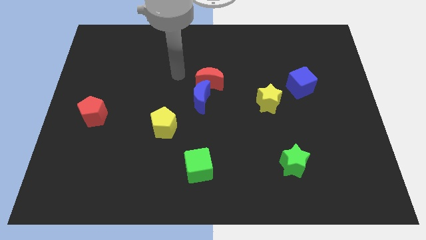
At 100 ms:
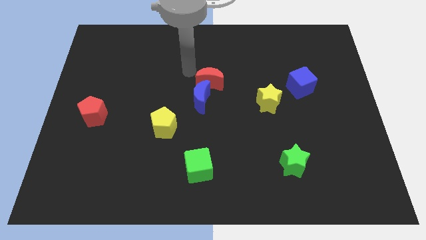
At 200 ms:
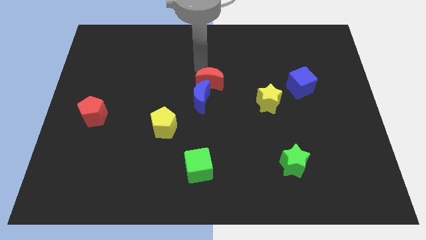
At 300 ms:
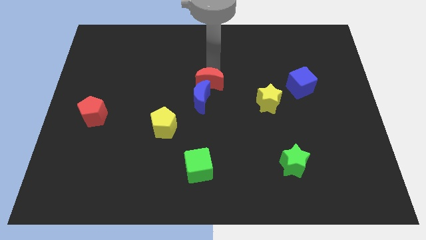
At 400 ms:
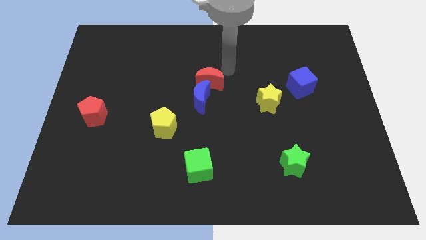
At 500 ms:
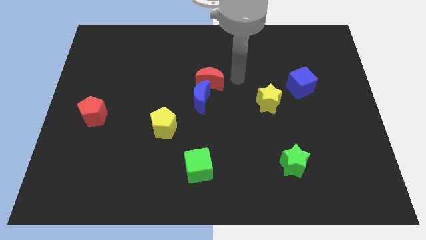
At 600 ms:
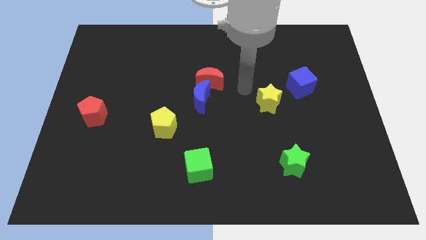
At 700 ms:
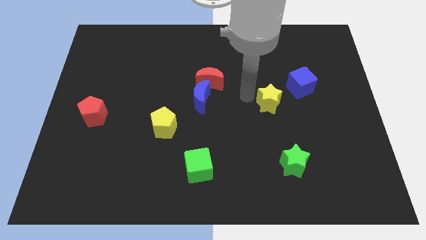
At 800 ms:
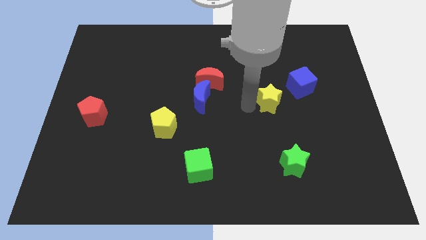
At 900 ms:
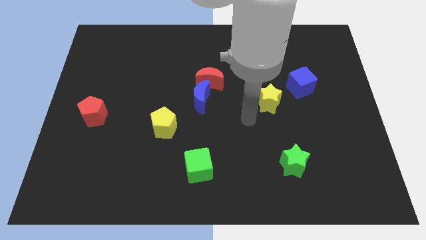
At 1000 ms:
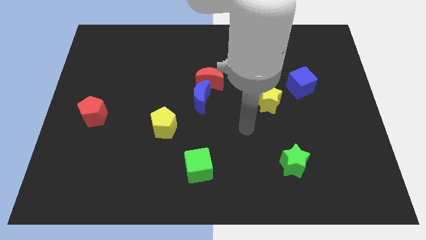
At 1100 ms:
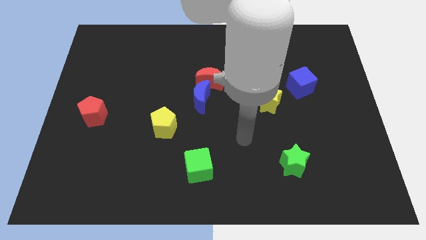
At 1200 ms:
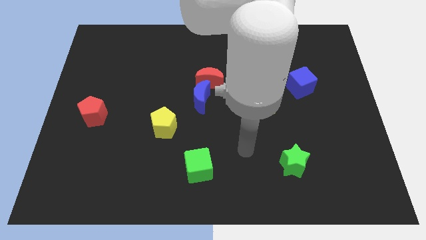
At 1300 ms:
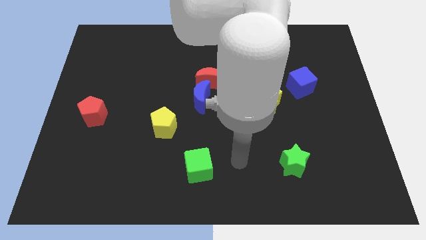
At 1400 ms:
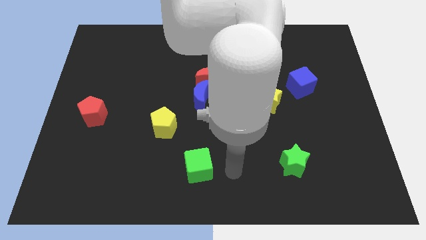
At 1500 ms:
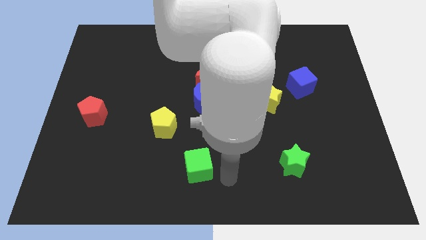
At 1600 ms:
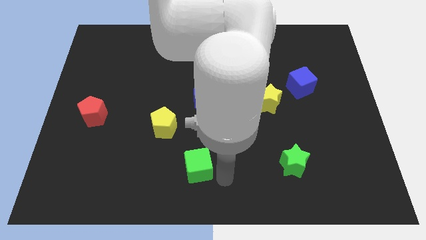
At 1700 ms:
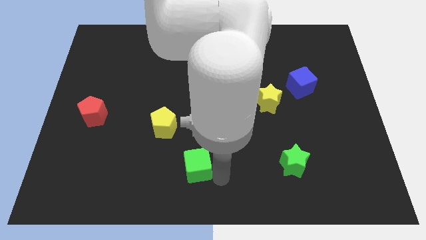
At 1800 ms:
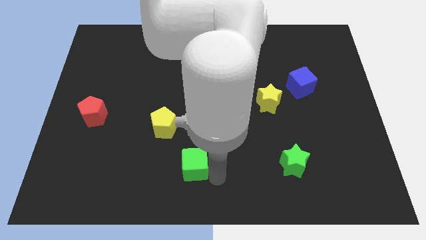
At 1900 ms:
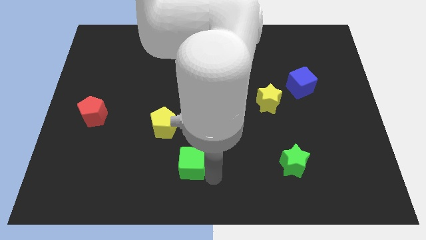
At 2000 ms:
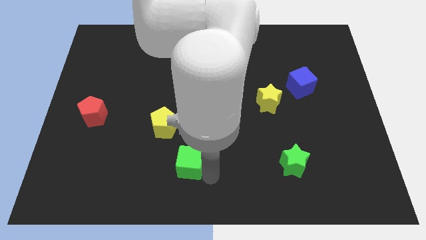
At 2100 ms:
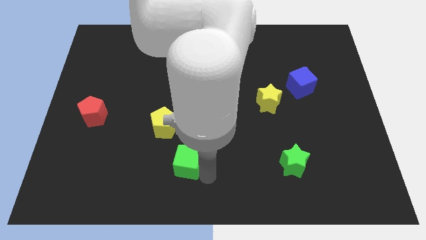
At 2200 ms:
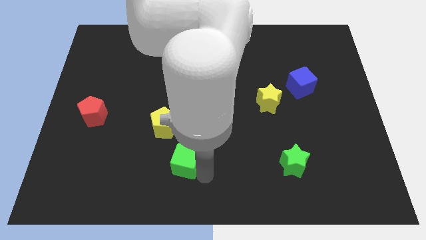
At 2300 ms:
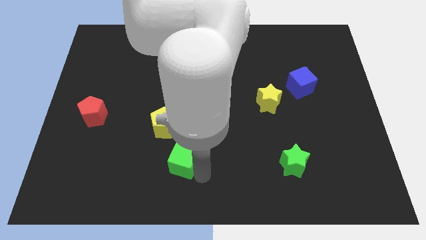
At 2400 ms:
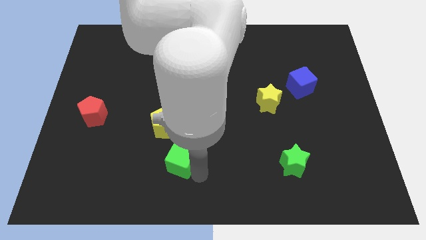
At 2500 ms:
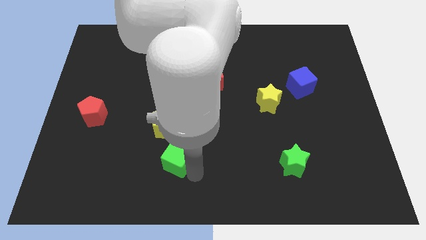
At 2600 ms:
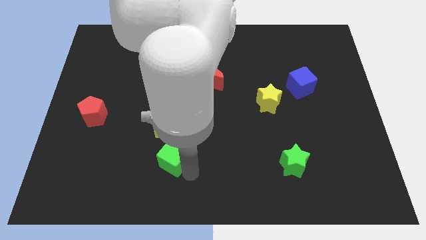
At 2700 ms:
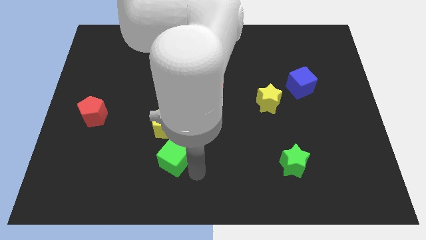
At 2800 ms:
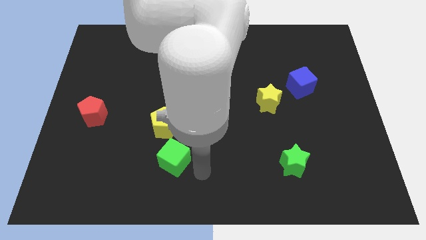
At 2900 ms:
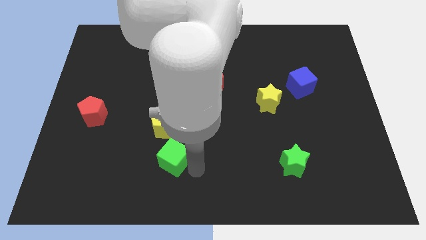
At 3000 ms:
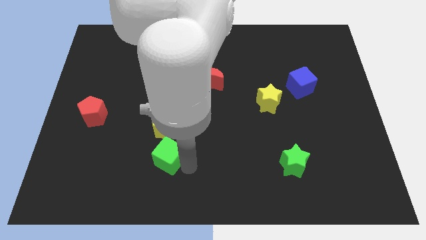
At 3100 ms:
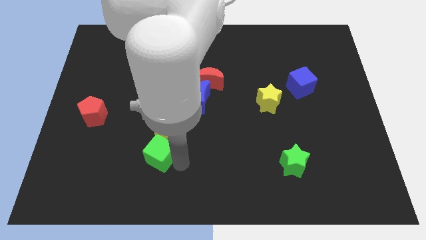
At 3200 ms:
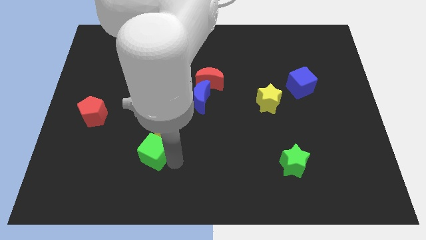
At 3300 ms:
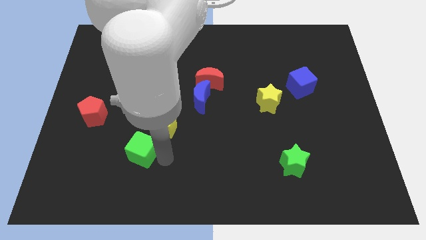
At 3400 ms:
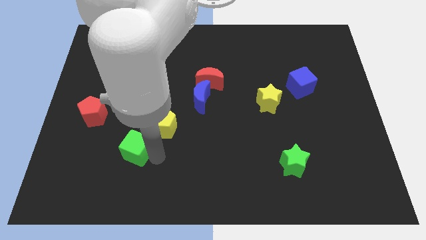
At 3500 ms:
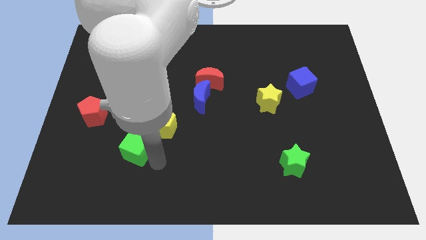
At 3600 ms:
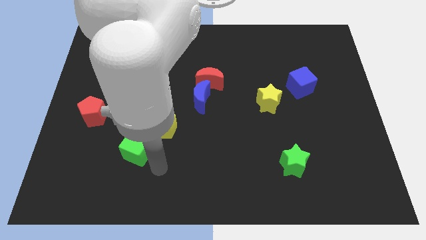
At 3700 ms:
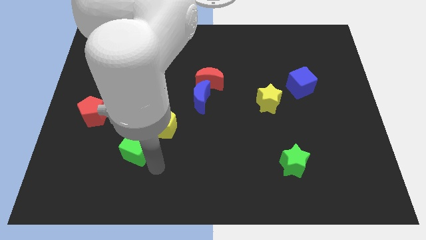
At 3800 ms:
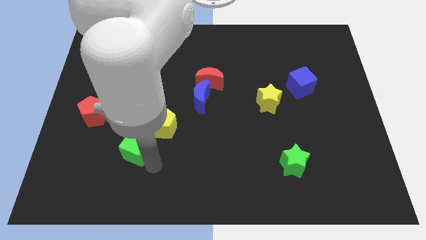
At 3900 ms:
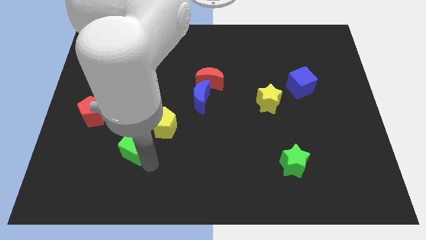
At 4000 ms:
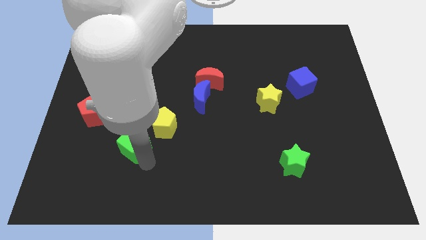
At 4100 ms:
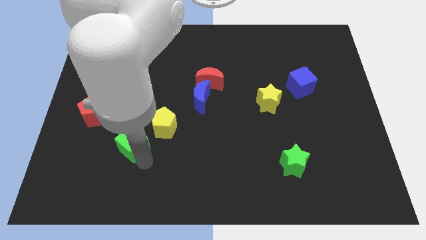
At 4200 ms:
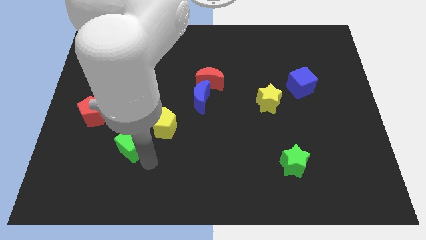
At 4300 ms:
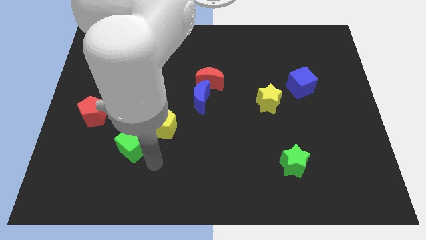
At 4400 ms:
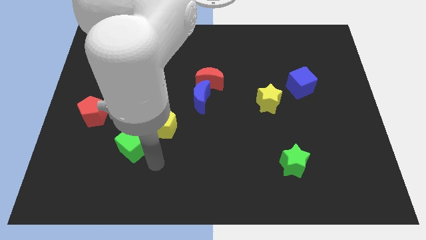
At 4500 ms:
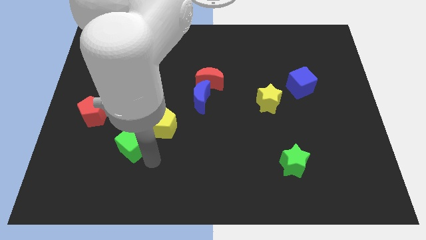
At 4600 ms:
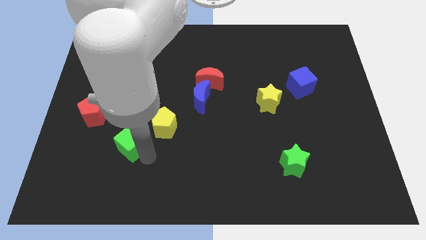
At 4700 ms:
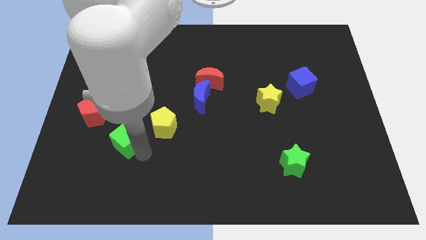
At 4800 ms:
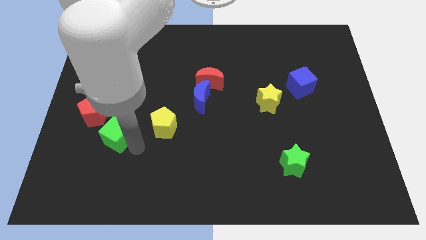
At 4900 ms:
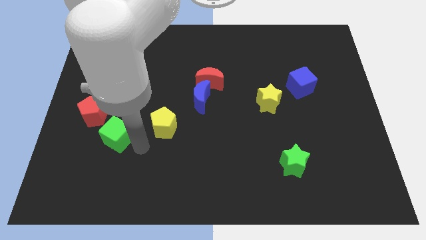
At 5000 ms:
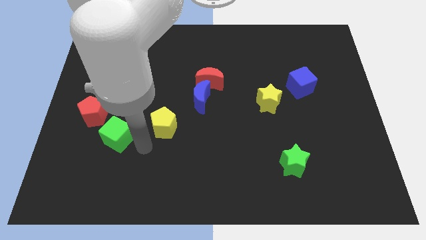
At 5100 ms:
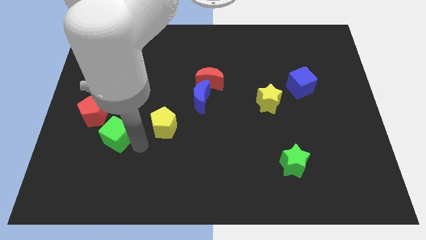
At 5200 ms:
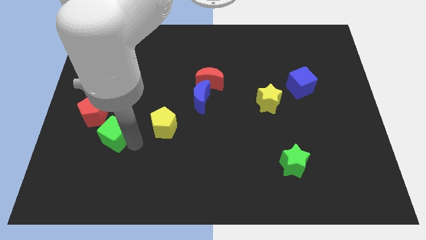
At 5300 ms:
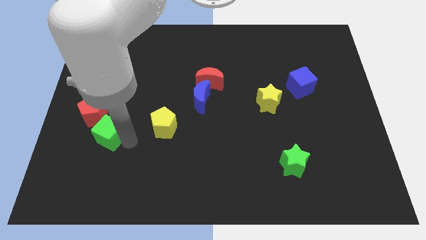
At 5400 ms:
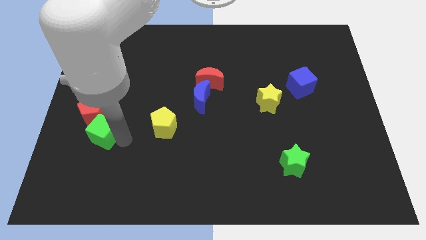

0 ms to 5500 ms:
move the green cube towards the red pentagon

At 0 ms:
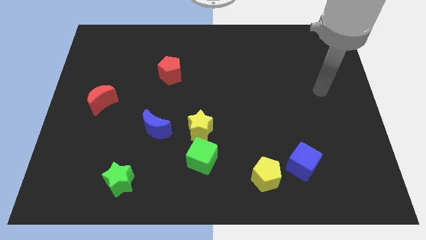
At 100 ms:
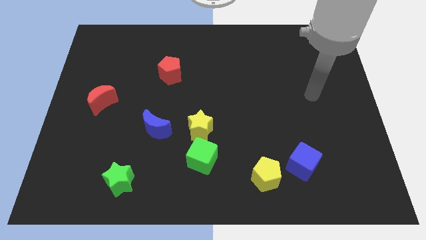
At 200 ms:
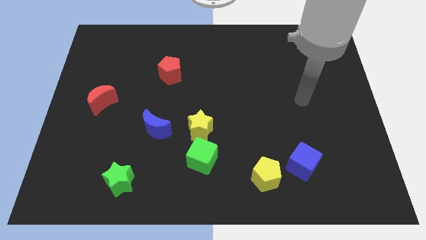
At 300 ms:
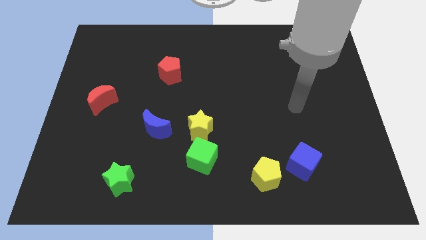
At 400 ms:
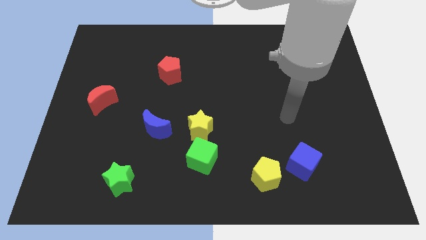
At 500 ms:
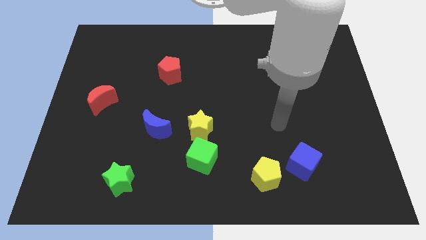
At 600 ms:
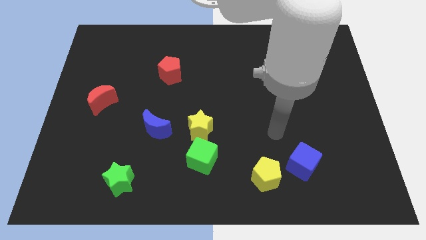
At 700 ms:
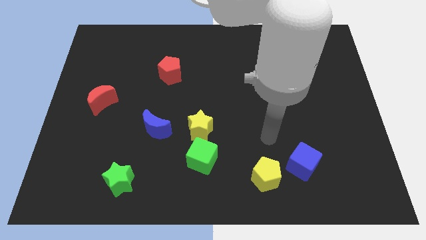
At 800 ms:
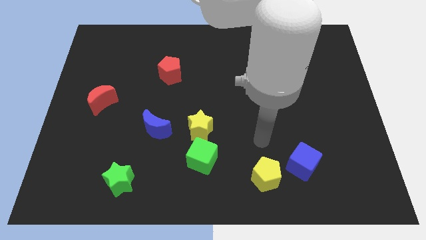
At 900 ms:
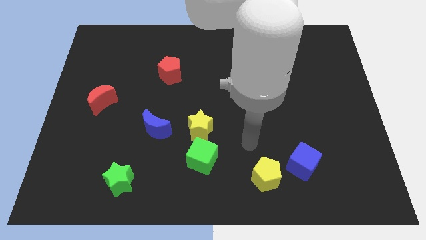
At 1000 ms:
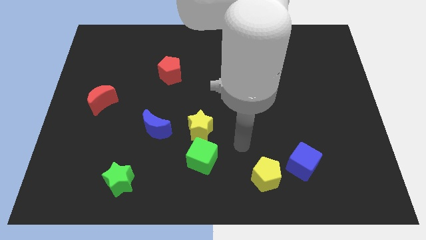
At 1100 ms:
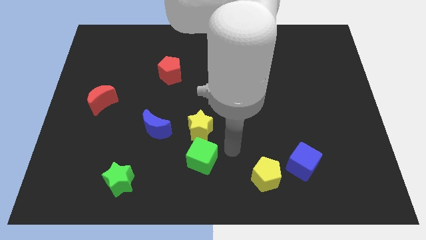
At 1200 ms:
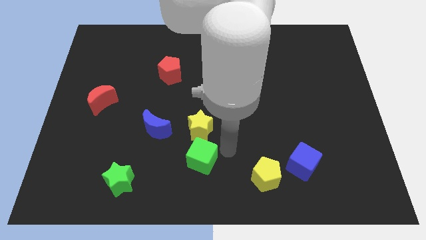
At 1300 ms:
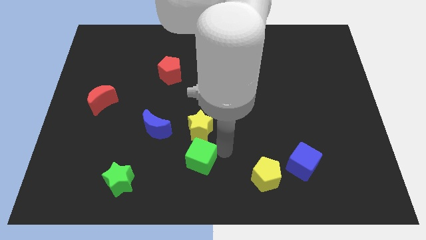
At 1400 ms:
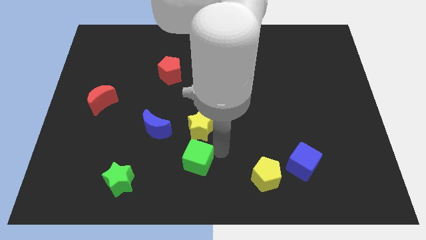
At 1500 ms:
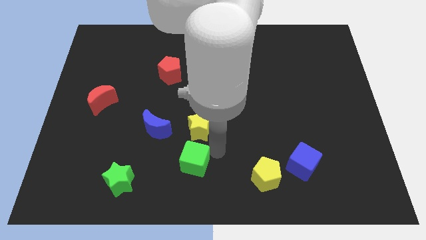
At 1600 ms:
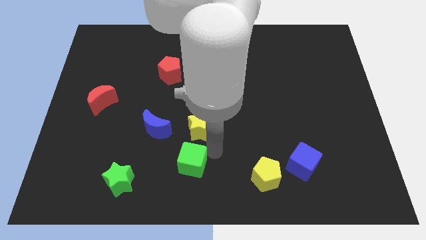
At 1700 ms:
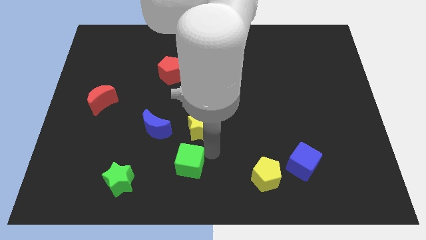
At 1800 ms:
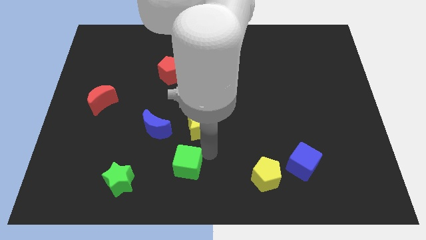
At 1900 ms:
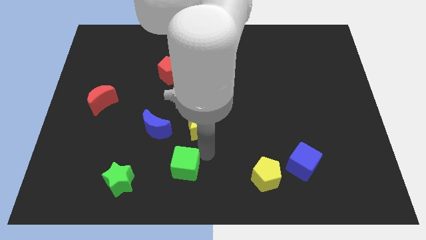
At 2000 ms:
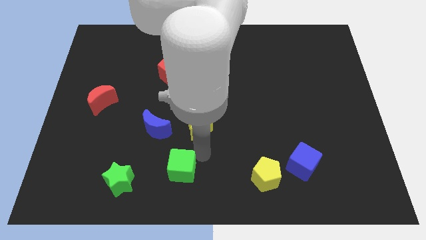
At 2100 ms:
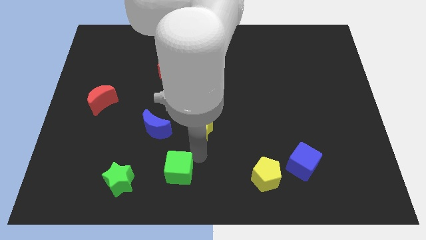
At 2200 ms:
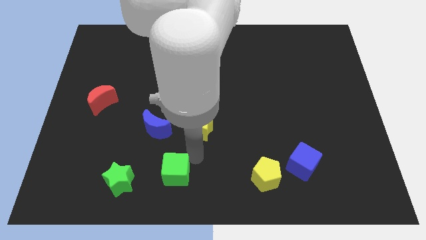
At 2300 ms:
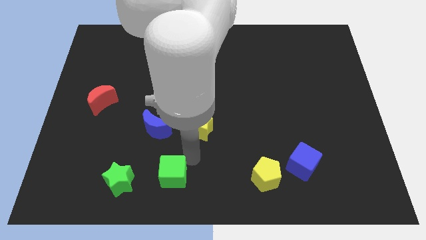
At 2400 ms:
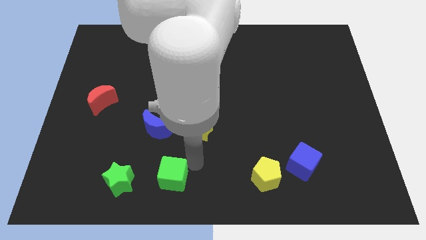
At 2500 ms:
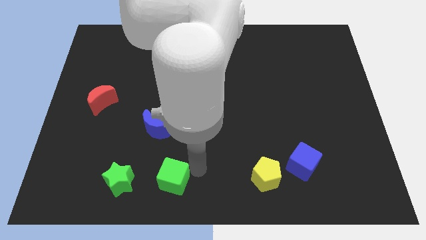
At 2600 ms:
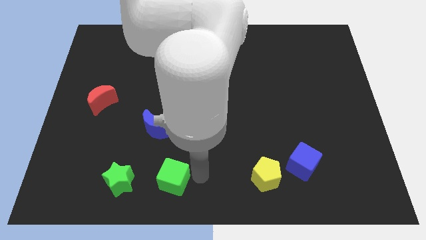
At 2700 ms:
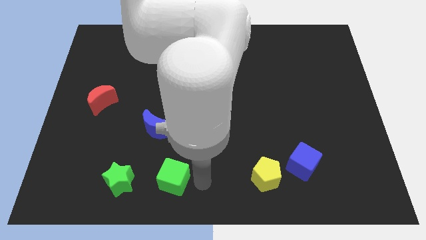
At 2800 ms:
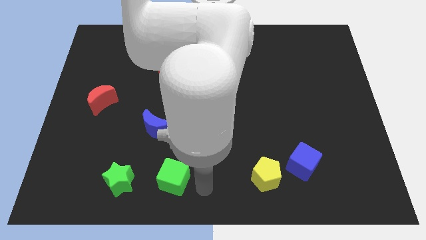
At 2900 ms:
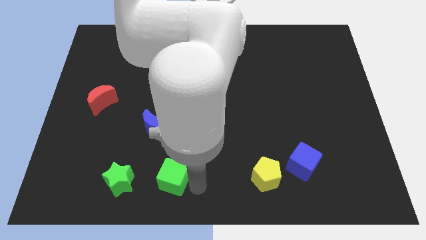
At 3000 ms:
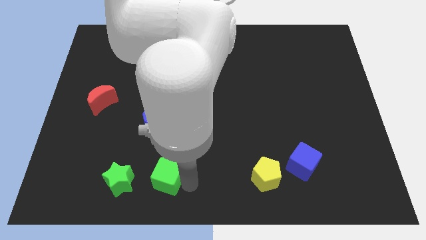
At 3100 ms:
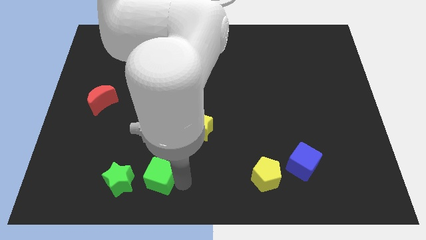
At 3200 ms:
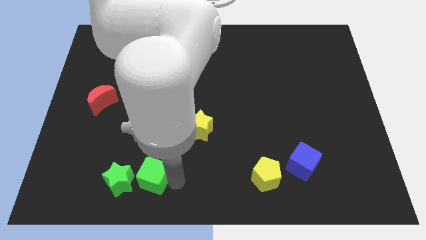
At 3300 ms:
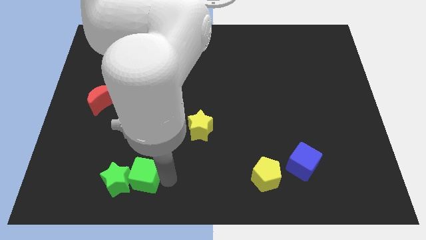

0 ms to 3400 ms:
move the green cube to the green star
